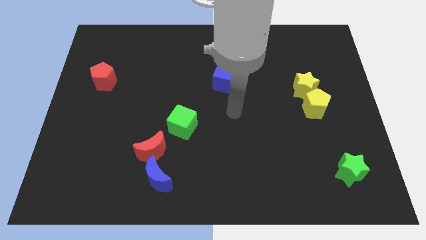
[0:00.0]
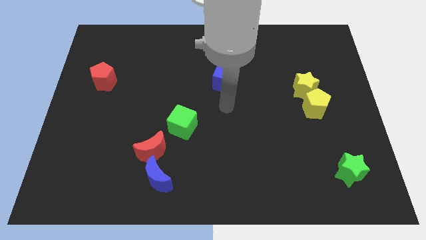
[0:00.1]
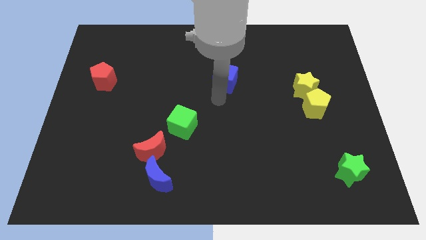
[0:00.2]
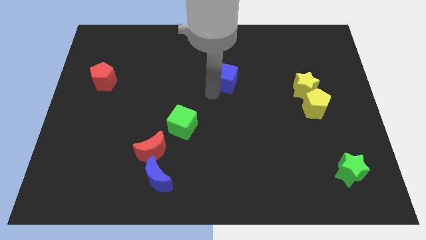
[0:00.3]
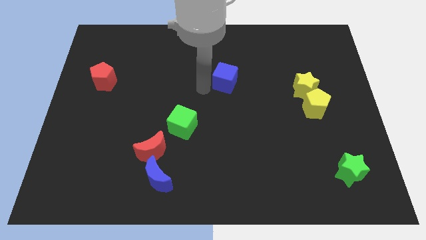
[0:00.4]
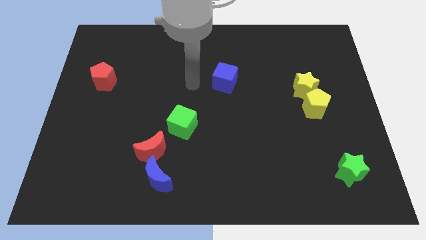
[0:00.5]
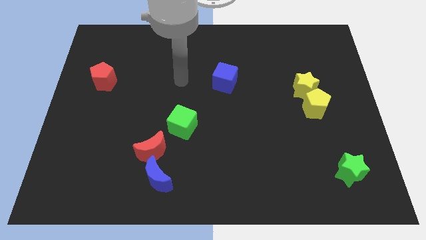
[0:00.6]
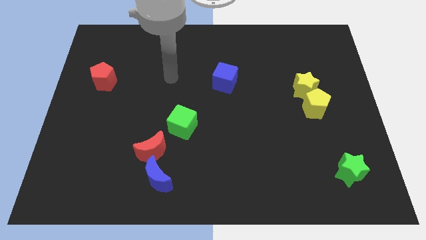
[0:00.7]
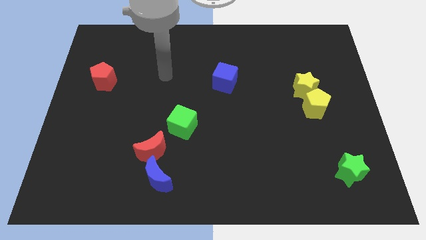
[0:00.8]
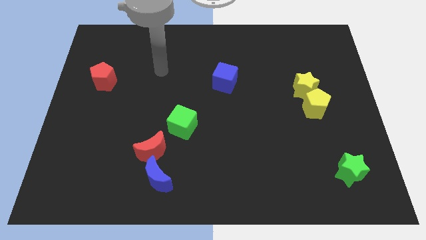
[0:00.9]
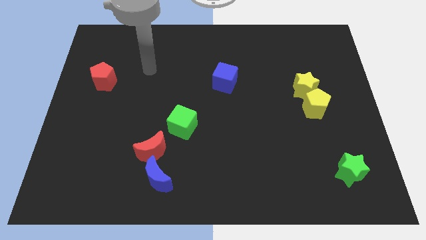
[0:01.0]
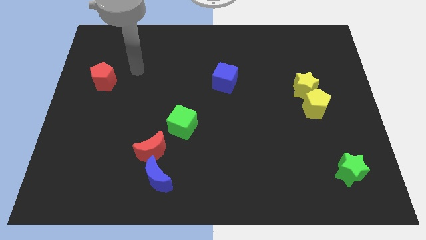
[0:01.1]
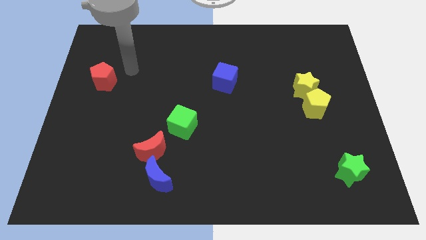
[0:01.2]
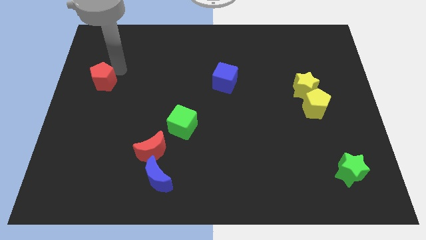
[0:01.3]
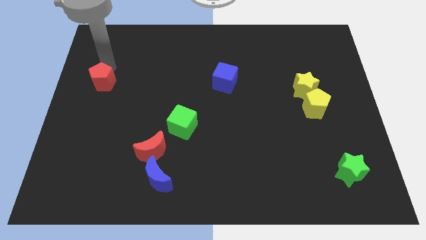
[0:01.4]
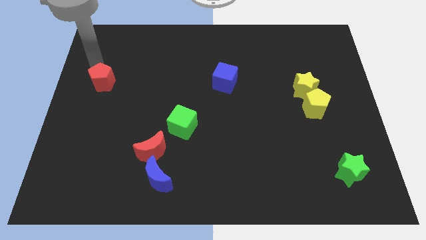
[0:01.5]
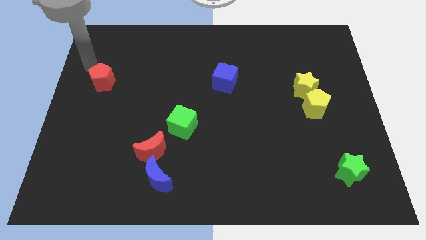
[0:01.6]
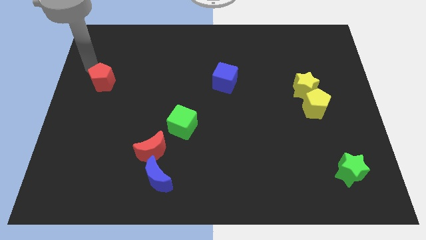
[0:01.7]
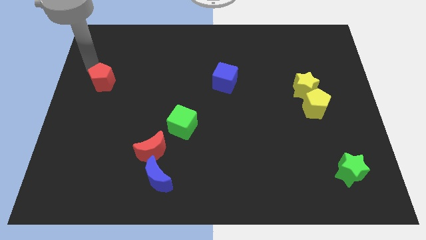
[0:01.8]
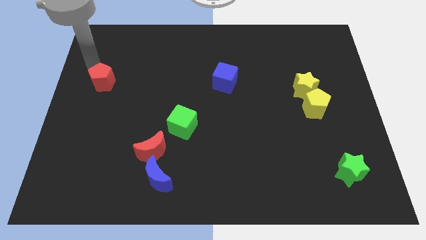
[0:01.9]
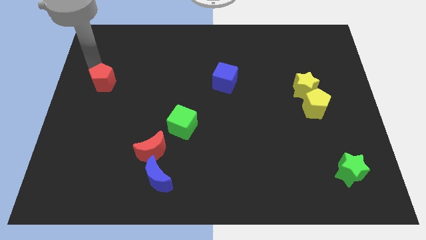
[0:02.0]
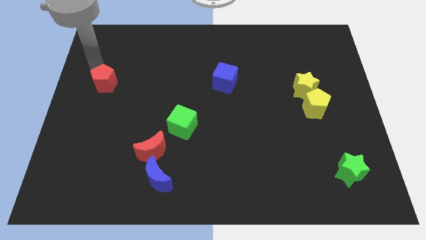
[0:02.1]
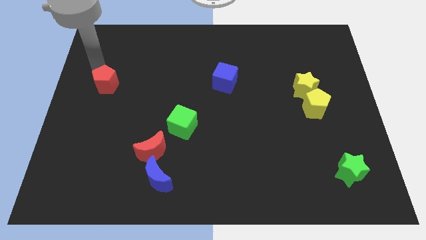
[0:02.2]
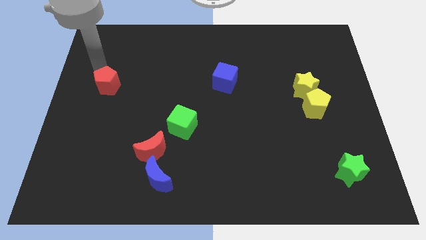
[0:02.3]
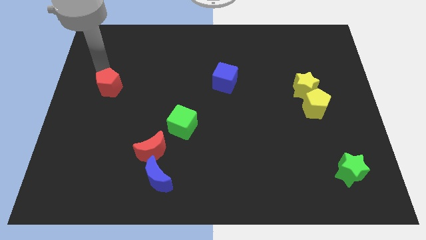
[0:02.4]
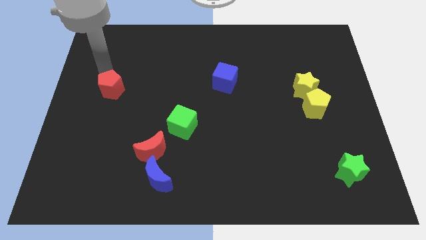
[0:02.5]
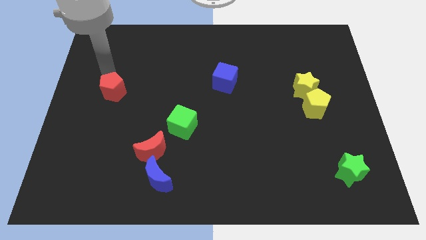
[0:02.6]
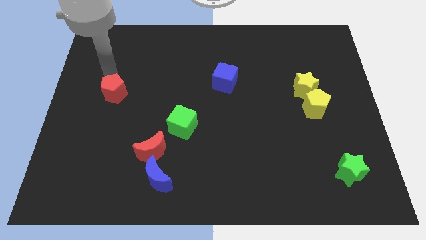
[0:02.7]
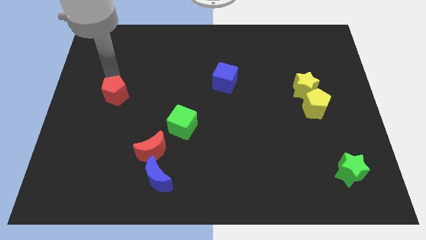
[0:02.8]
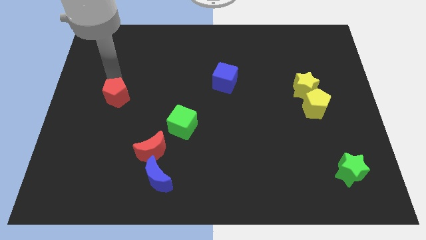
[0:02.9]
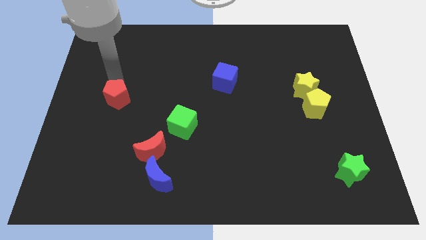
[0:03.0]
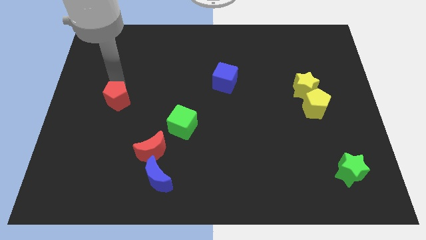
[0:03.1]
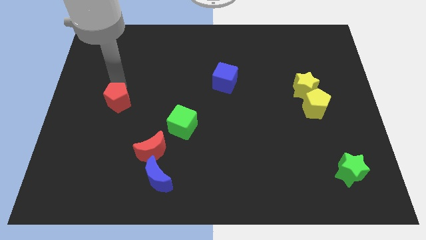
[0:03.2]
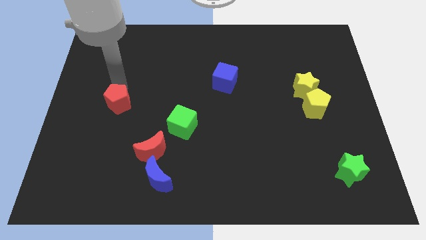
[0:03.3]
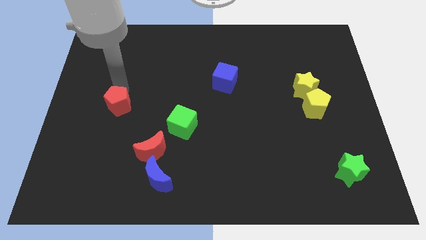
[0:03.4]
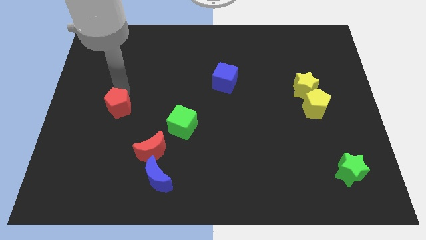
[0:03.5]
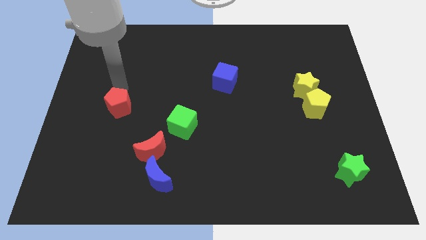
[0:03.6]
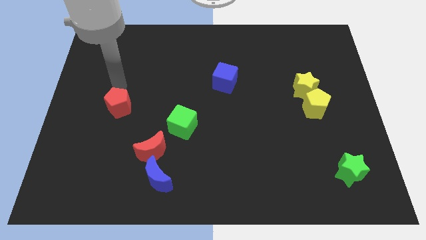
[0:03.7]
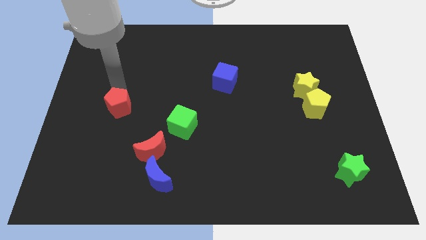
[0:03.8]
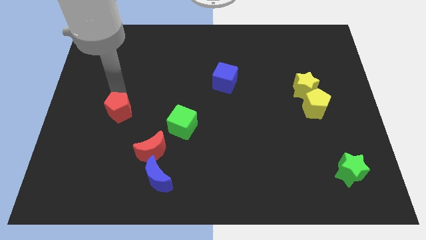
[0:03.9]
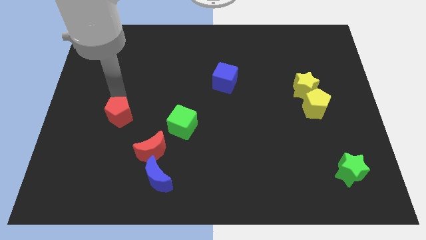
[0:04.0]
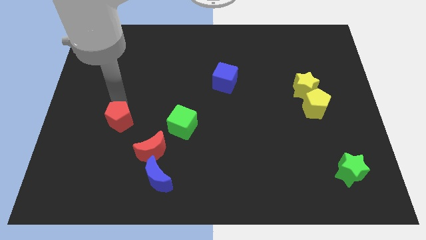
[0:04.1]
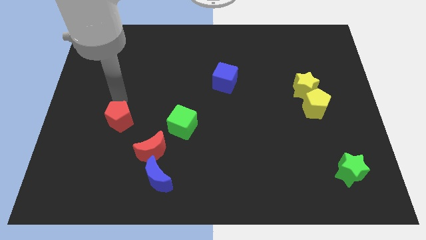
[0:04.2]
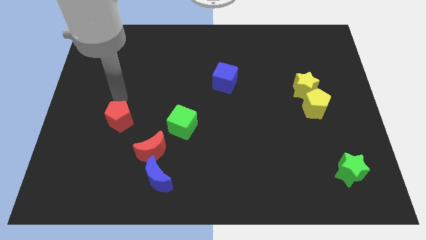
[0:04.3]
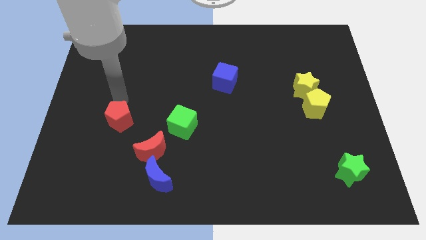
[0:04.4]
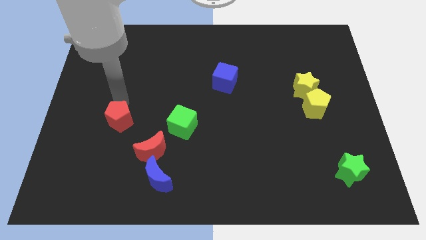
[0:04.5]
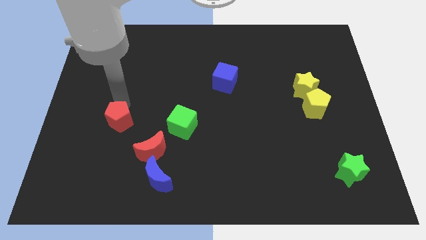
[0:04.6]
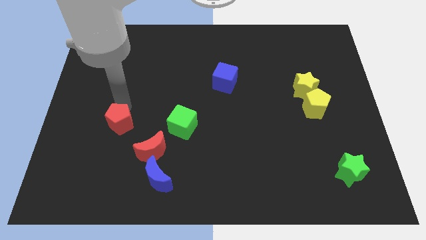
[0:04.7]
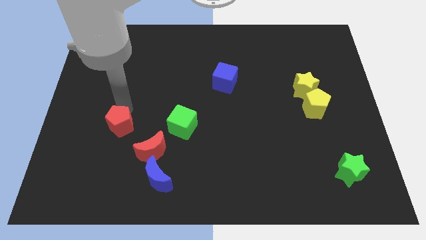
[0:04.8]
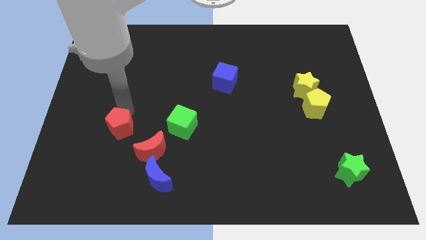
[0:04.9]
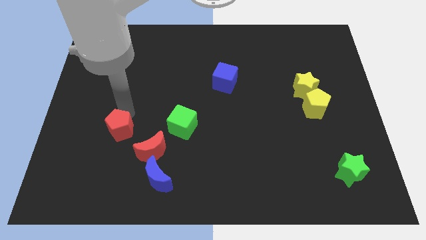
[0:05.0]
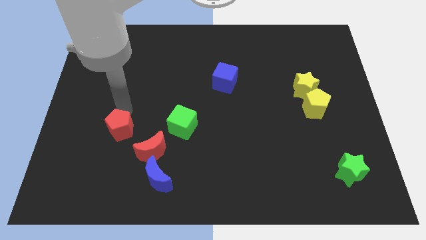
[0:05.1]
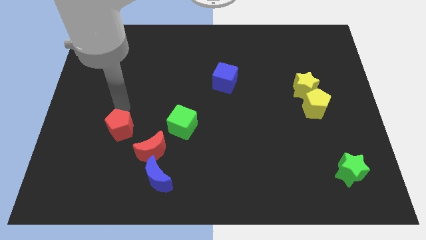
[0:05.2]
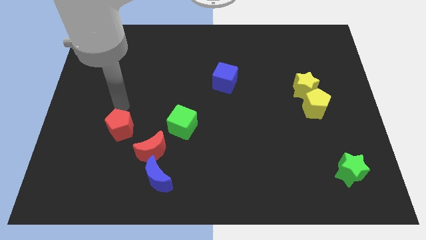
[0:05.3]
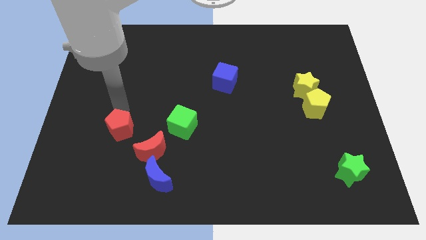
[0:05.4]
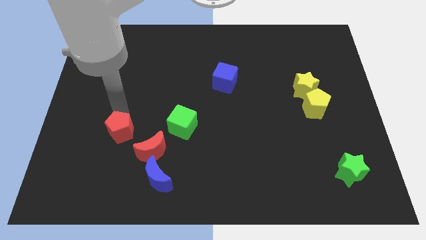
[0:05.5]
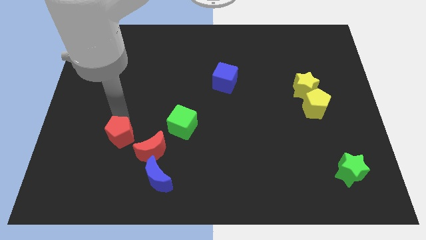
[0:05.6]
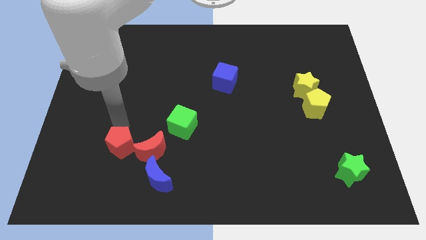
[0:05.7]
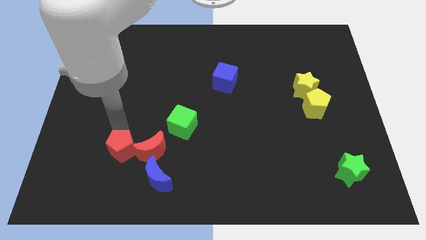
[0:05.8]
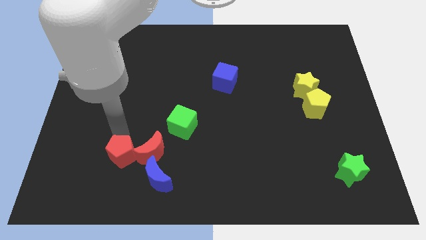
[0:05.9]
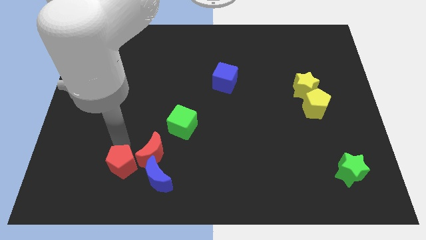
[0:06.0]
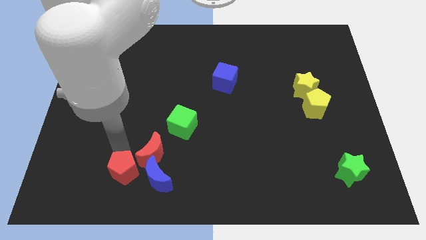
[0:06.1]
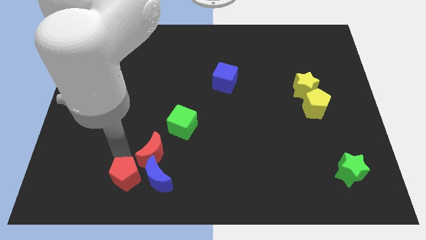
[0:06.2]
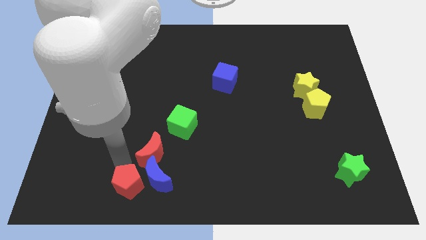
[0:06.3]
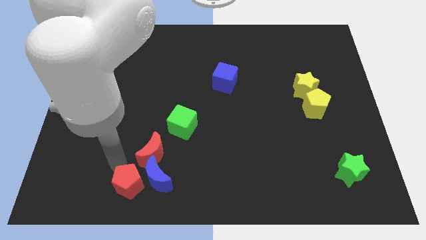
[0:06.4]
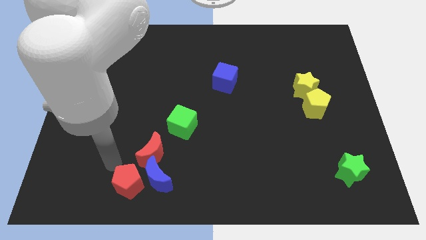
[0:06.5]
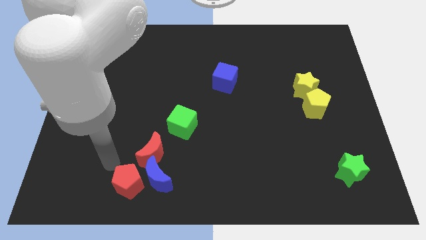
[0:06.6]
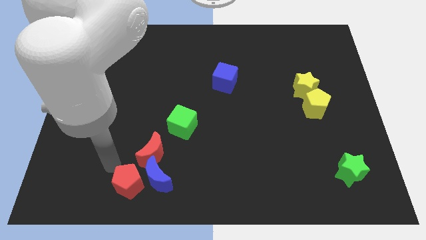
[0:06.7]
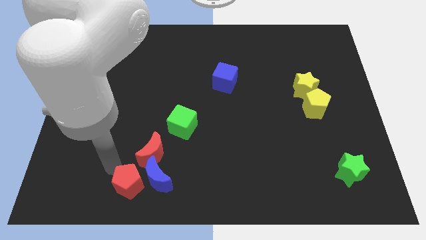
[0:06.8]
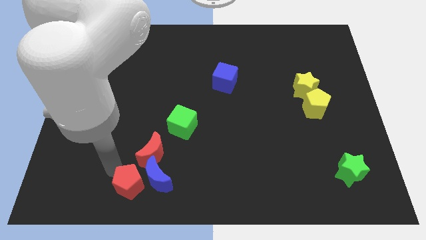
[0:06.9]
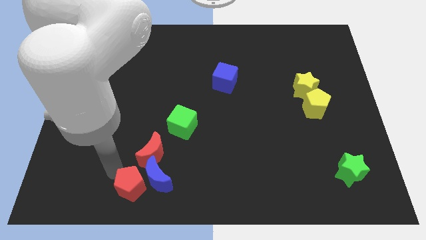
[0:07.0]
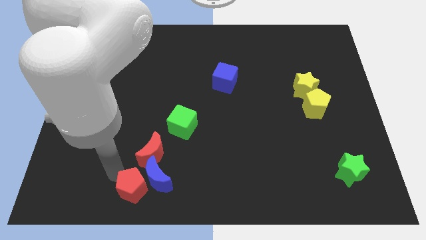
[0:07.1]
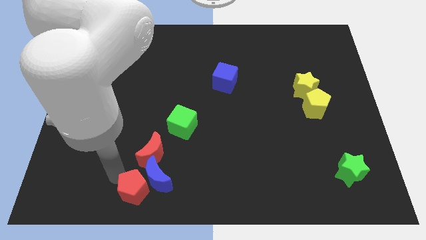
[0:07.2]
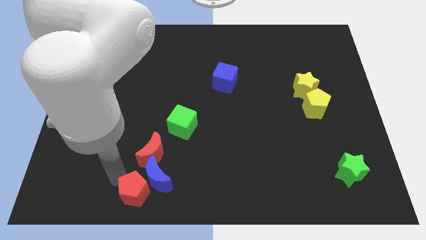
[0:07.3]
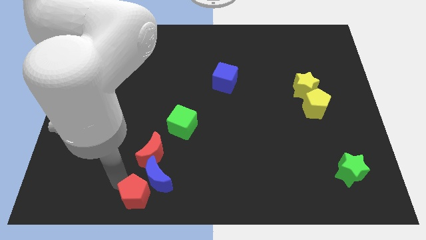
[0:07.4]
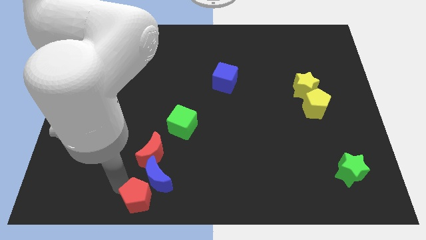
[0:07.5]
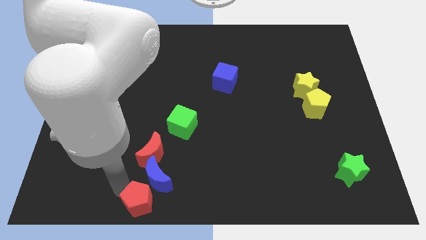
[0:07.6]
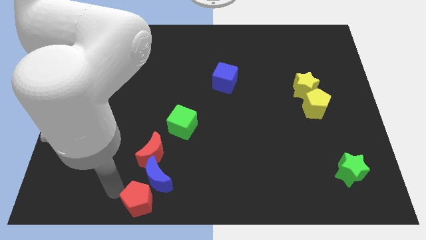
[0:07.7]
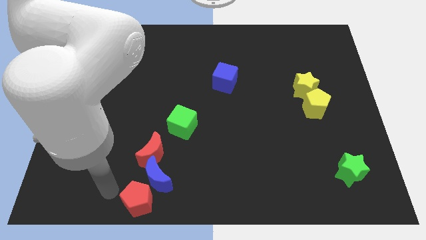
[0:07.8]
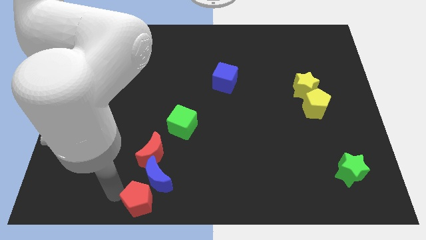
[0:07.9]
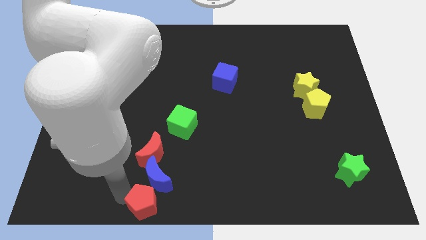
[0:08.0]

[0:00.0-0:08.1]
put the red pentagon to the bottom side
